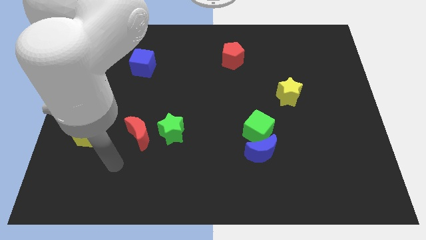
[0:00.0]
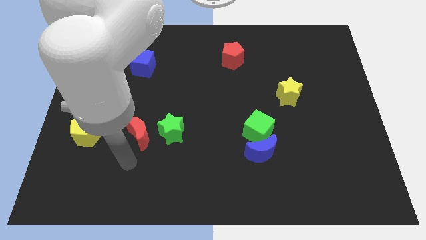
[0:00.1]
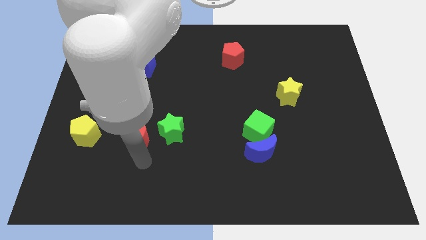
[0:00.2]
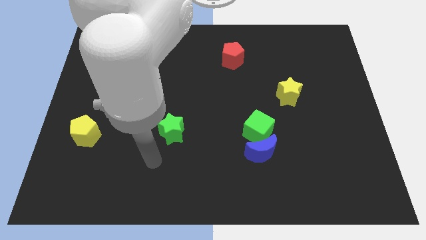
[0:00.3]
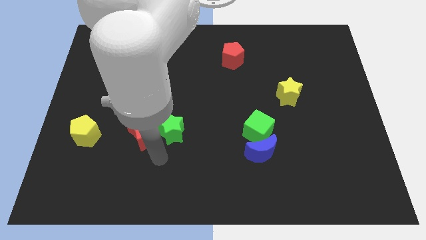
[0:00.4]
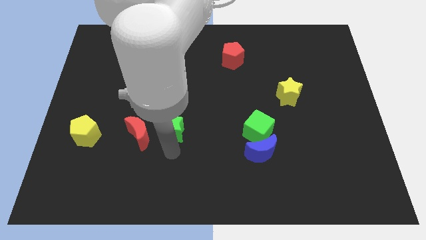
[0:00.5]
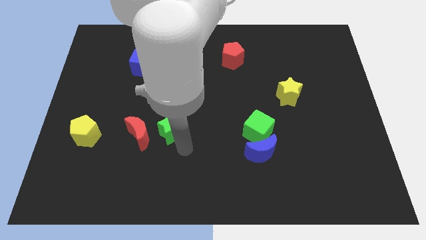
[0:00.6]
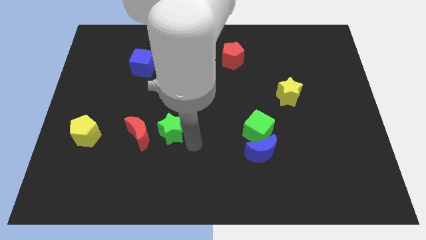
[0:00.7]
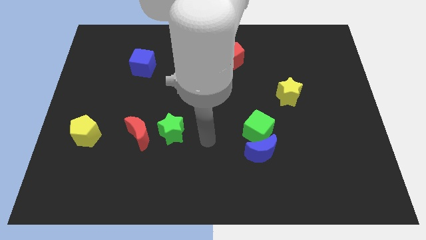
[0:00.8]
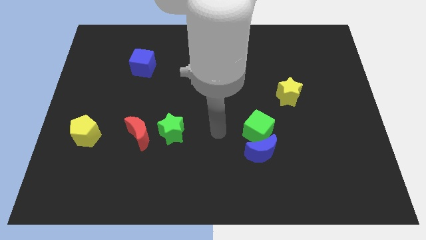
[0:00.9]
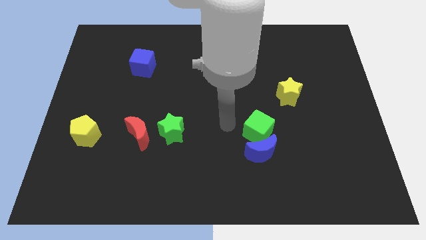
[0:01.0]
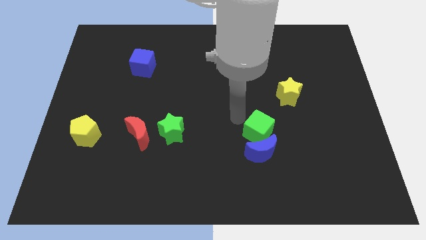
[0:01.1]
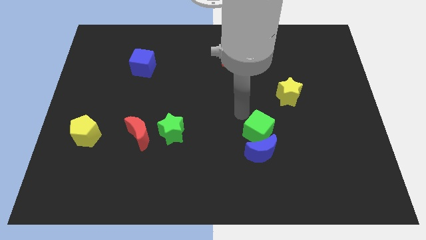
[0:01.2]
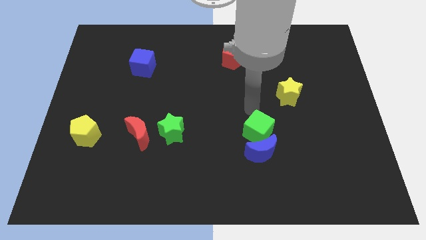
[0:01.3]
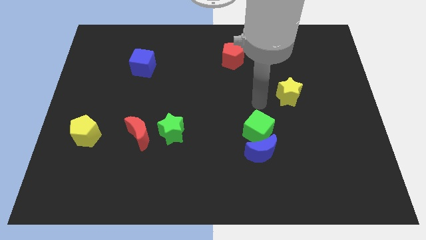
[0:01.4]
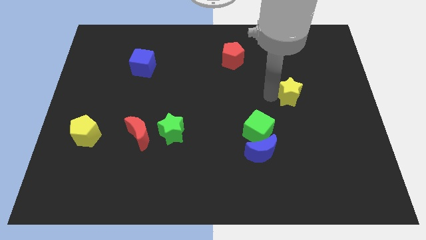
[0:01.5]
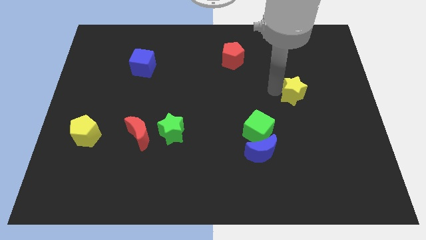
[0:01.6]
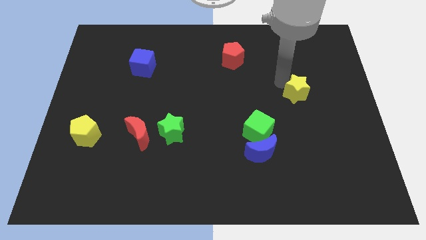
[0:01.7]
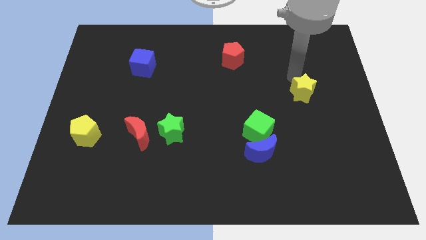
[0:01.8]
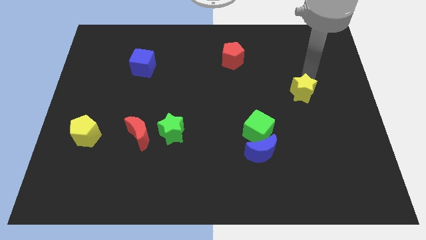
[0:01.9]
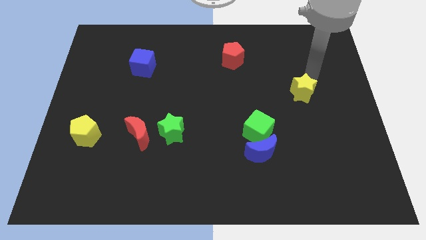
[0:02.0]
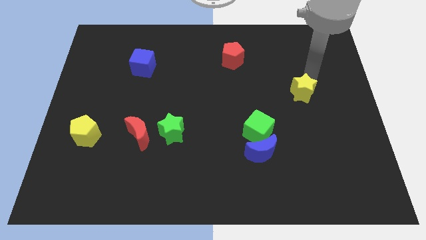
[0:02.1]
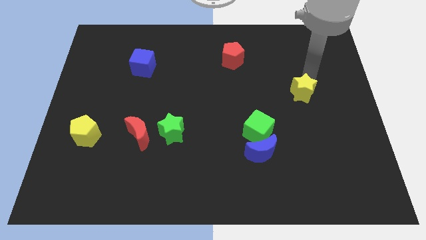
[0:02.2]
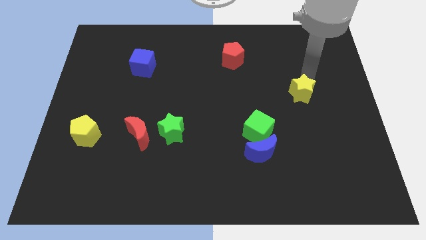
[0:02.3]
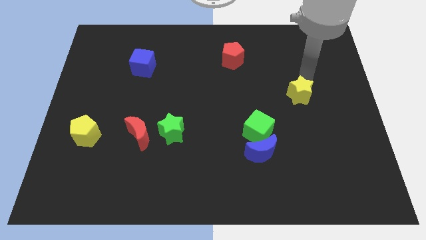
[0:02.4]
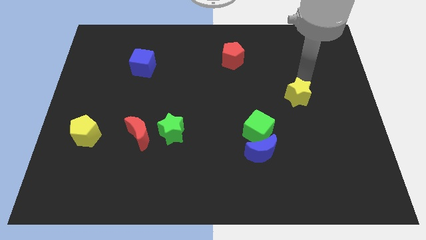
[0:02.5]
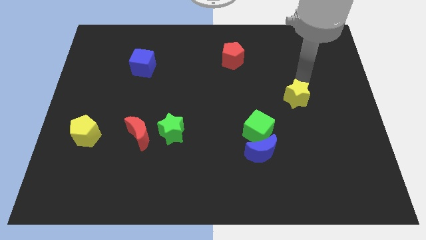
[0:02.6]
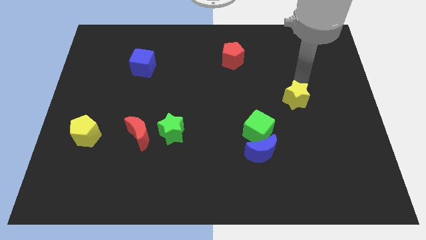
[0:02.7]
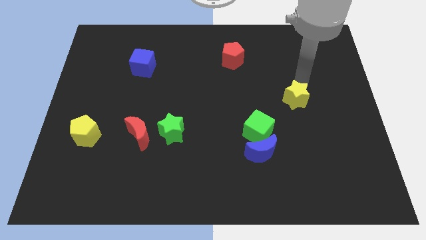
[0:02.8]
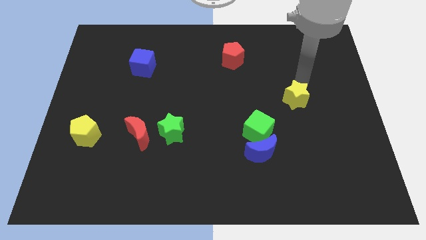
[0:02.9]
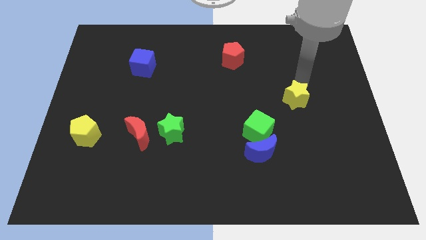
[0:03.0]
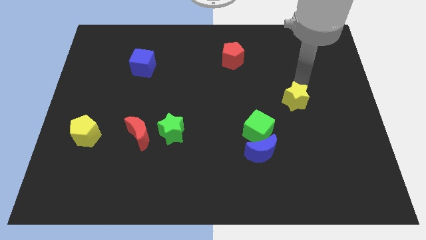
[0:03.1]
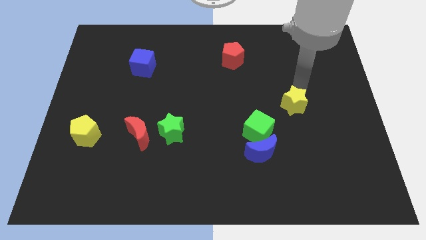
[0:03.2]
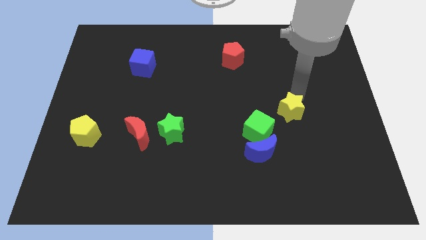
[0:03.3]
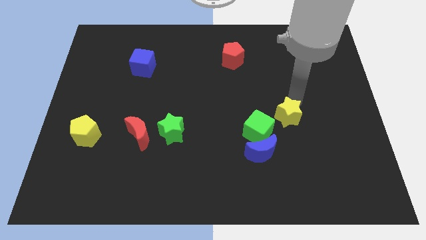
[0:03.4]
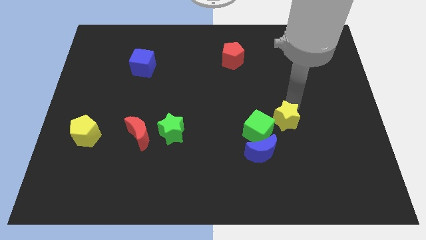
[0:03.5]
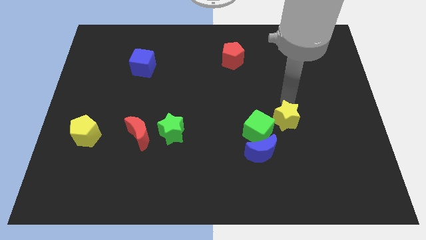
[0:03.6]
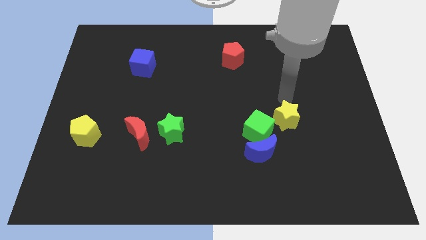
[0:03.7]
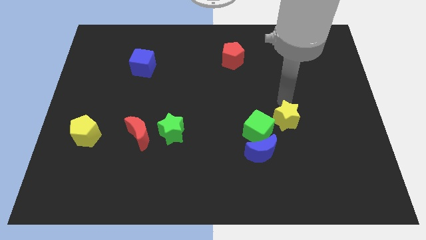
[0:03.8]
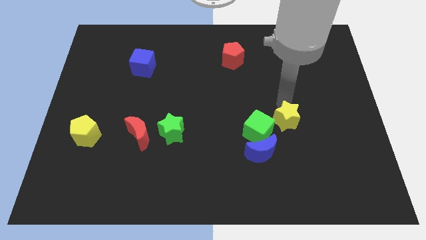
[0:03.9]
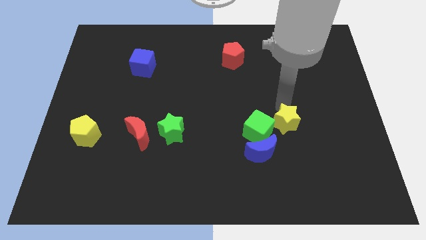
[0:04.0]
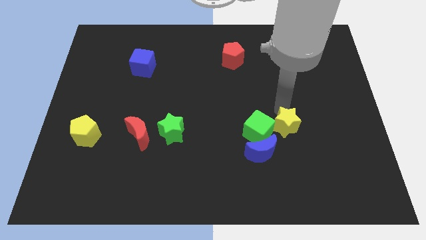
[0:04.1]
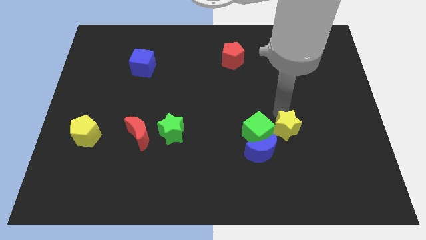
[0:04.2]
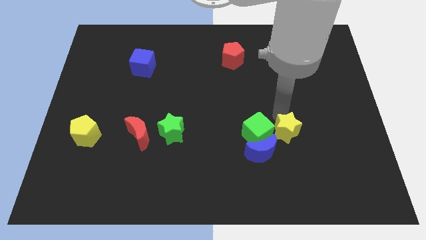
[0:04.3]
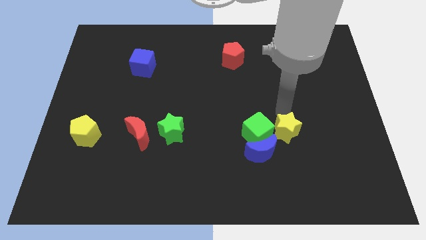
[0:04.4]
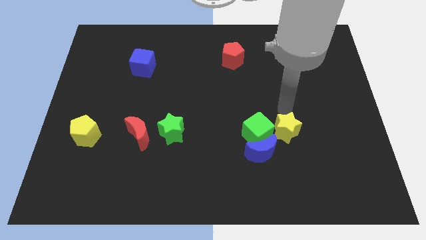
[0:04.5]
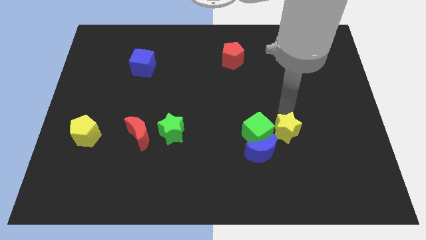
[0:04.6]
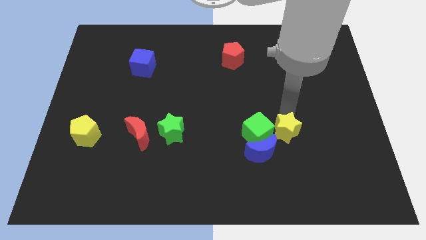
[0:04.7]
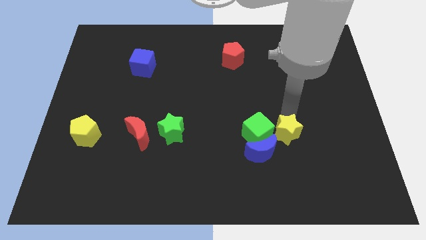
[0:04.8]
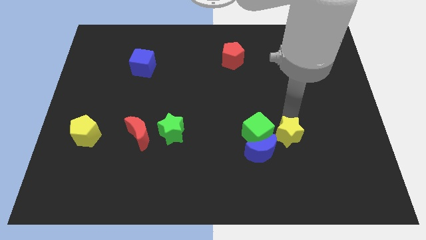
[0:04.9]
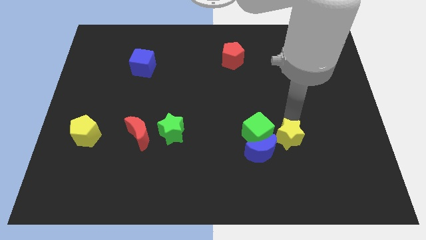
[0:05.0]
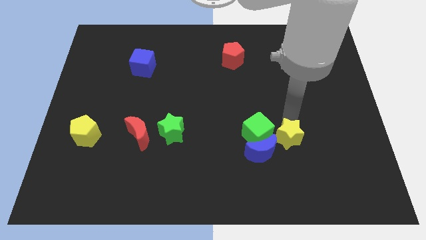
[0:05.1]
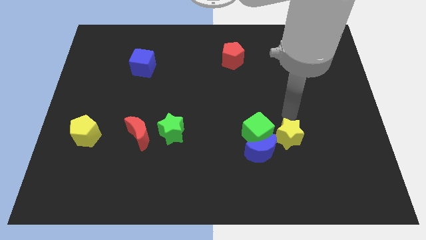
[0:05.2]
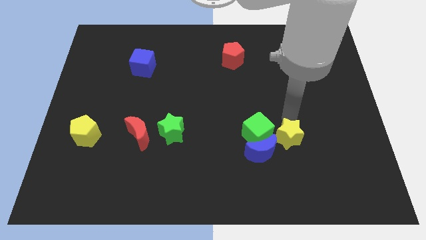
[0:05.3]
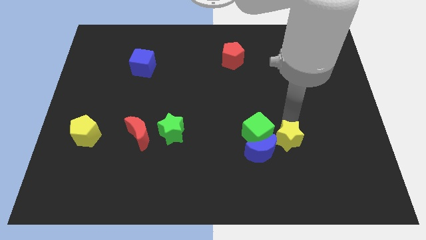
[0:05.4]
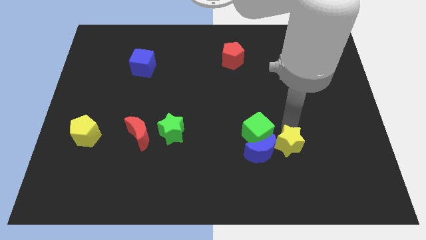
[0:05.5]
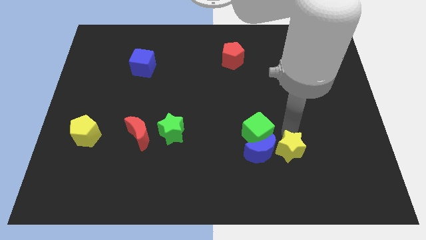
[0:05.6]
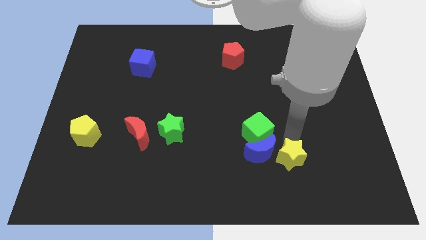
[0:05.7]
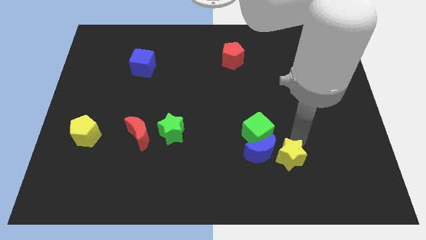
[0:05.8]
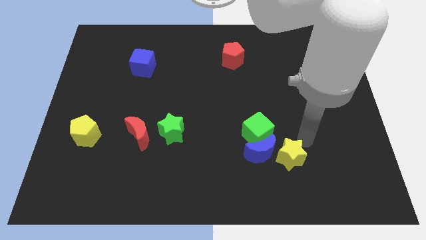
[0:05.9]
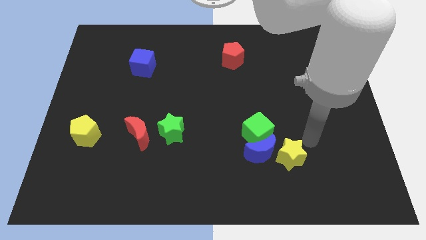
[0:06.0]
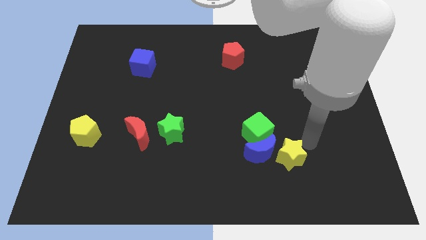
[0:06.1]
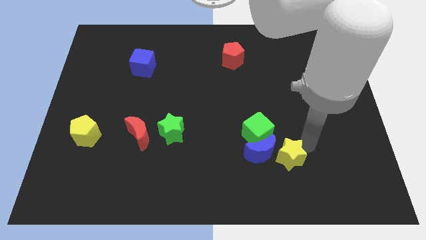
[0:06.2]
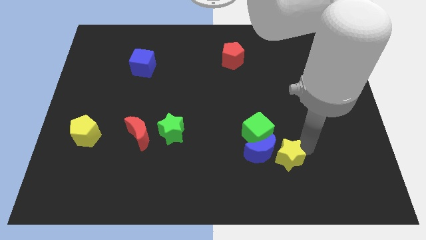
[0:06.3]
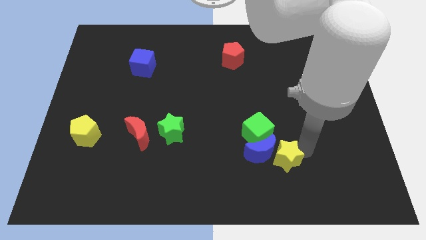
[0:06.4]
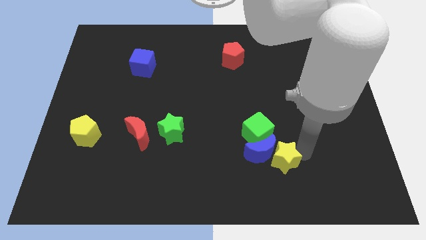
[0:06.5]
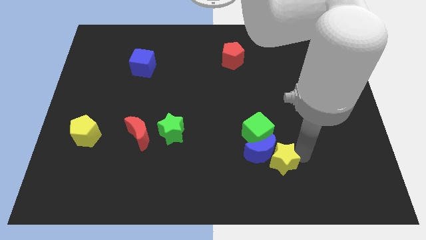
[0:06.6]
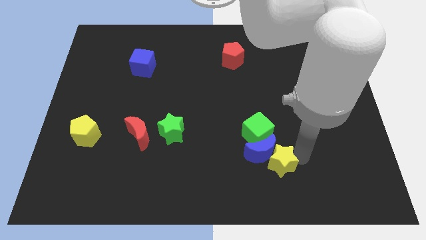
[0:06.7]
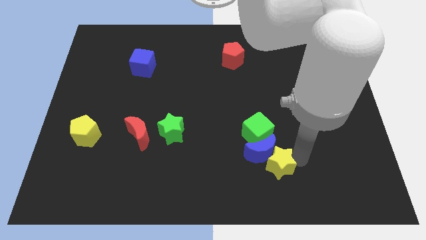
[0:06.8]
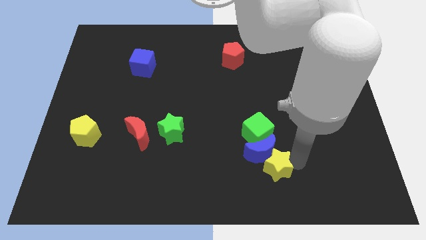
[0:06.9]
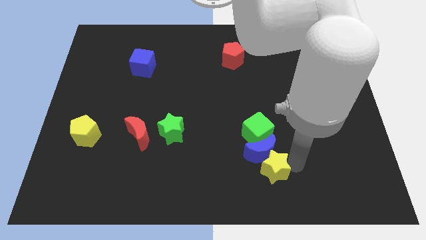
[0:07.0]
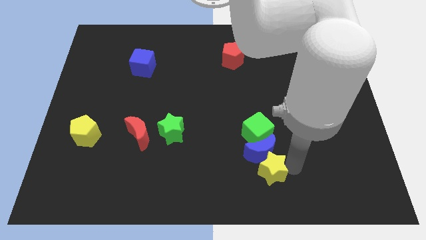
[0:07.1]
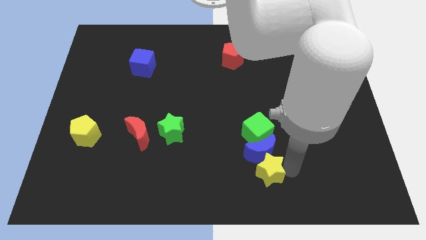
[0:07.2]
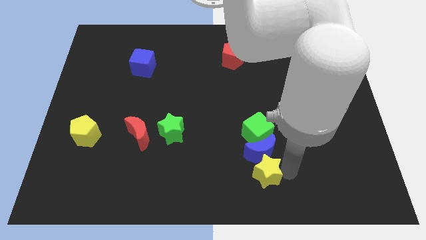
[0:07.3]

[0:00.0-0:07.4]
slide the yellow star to the bottom
